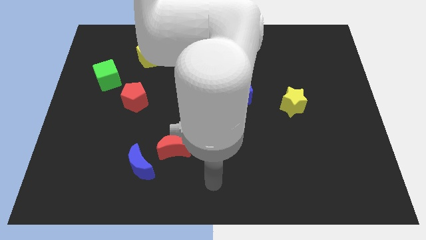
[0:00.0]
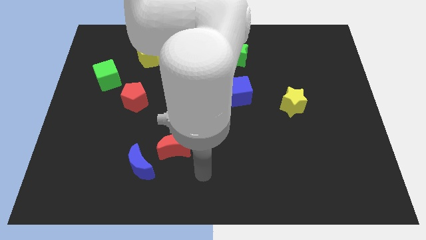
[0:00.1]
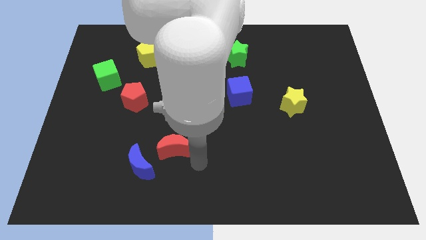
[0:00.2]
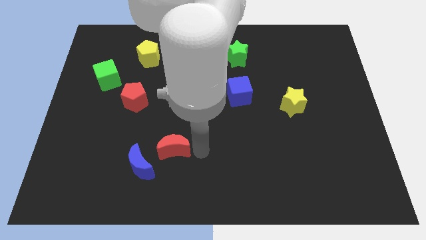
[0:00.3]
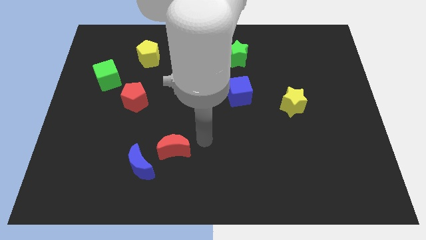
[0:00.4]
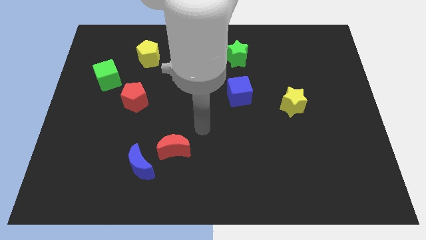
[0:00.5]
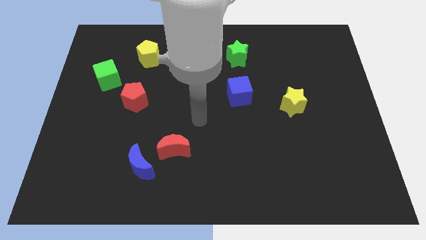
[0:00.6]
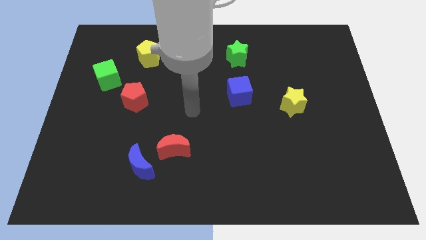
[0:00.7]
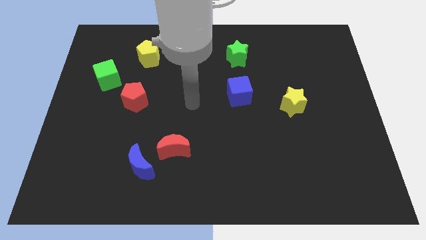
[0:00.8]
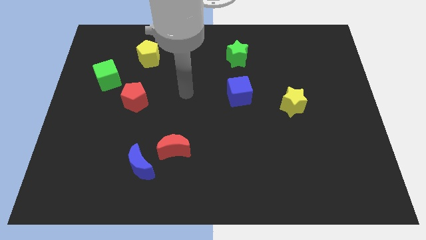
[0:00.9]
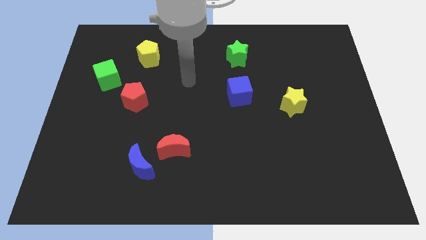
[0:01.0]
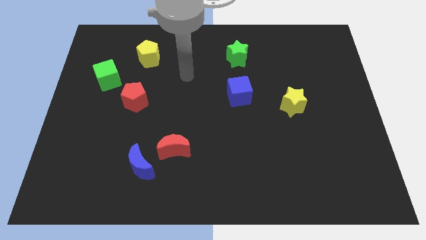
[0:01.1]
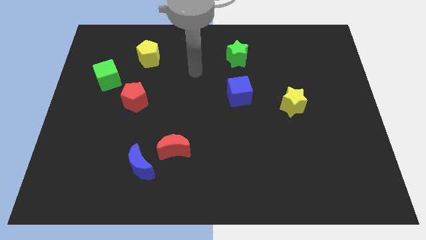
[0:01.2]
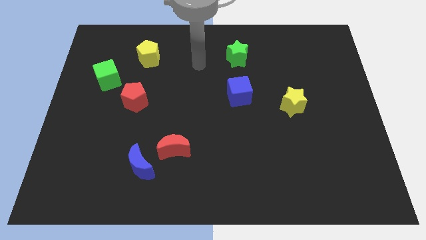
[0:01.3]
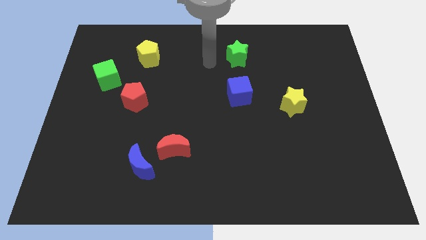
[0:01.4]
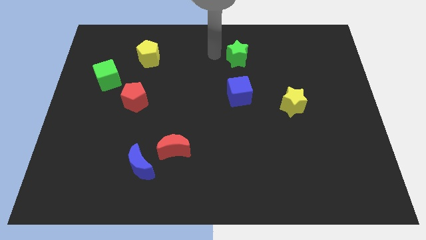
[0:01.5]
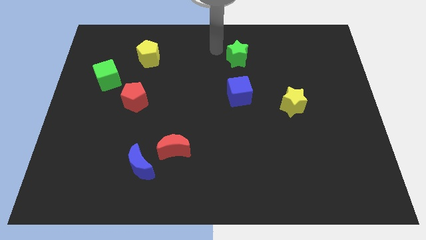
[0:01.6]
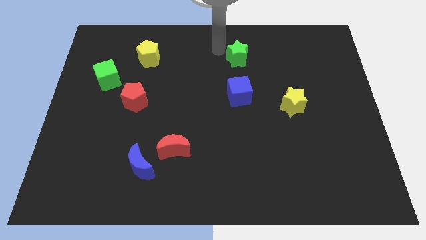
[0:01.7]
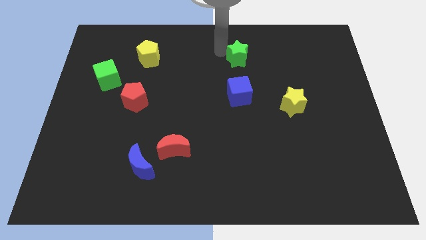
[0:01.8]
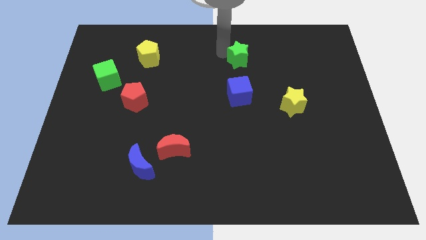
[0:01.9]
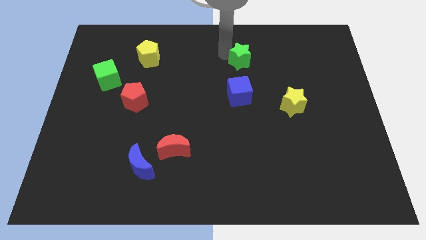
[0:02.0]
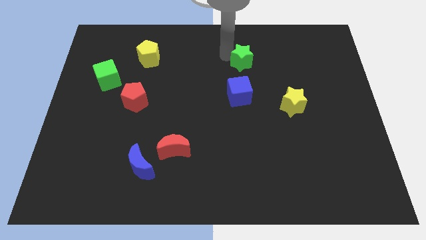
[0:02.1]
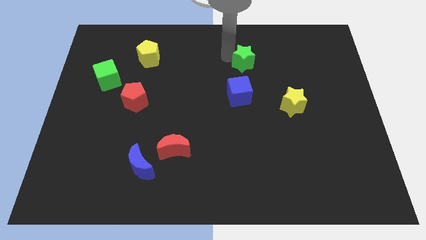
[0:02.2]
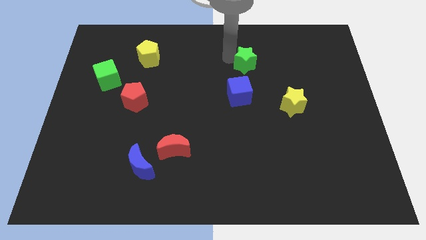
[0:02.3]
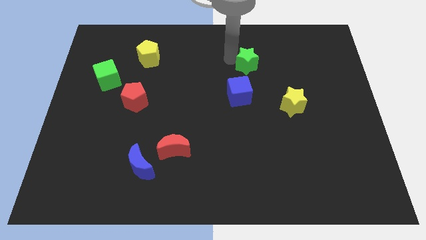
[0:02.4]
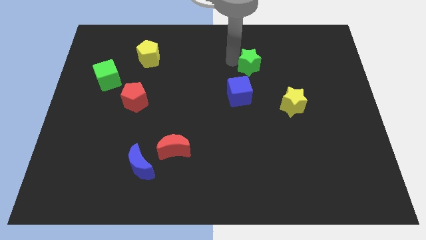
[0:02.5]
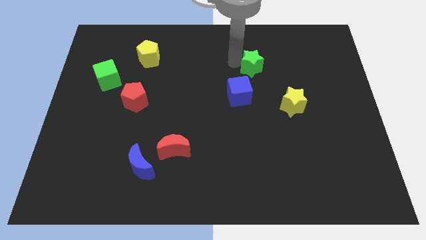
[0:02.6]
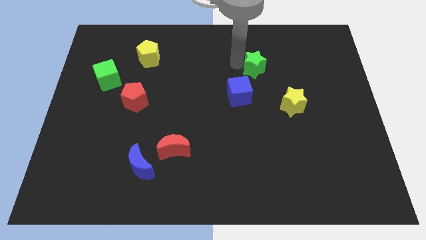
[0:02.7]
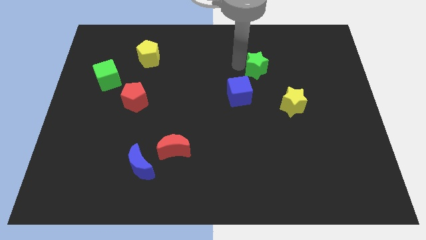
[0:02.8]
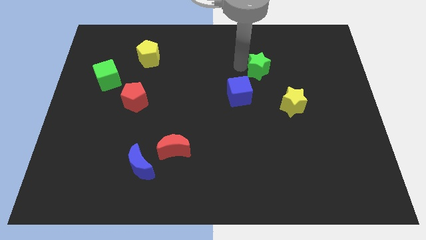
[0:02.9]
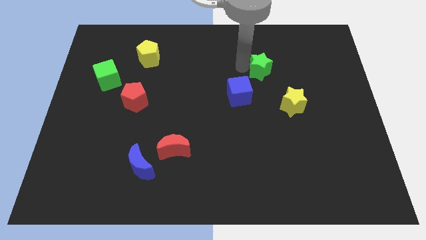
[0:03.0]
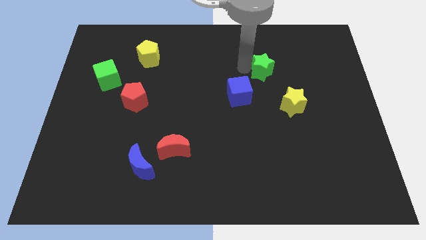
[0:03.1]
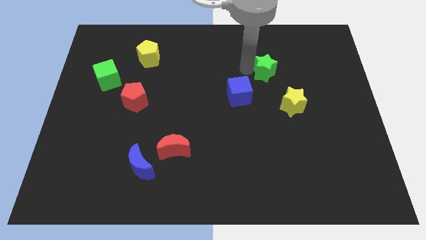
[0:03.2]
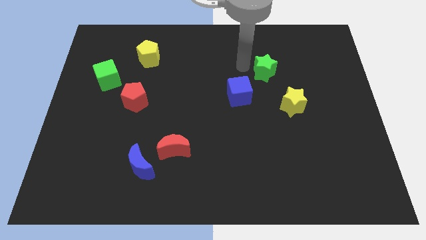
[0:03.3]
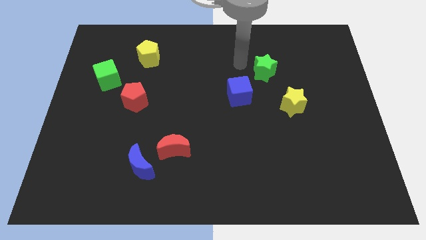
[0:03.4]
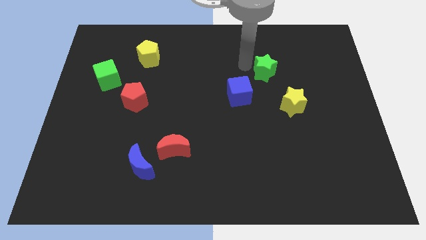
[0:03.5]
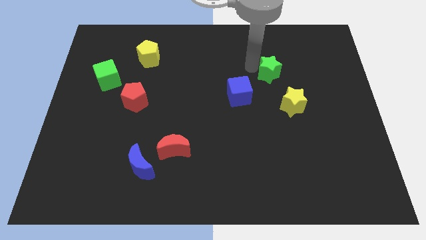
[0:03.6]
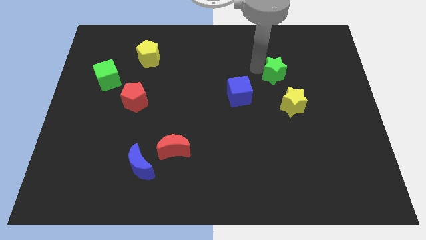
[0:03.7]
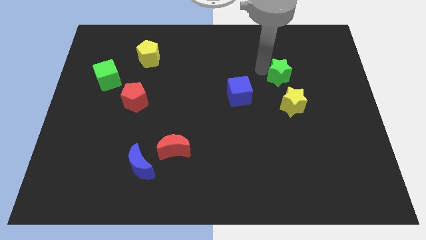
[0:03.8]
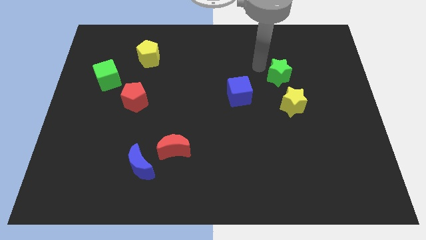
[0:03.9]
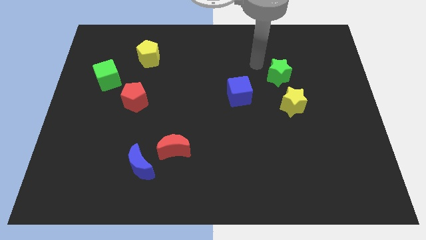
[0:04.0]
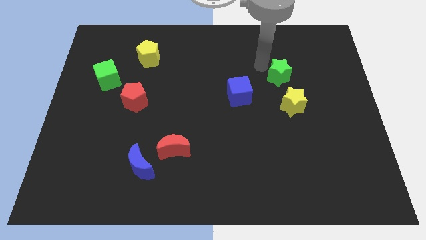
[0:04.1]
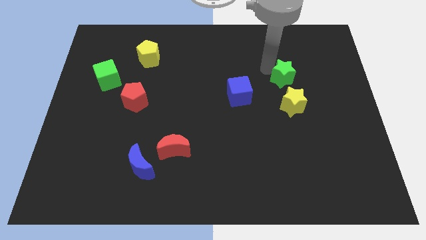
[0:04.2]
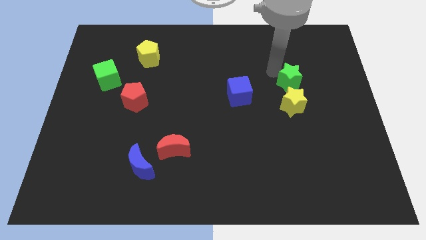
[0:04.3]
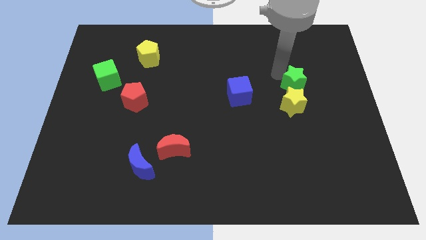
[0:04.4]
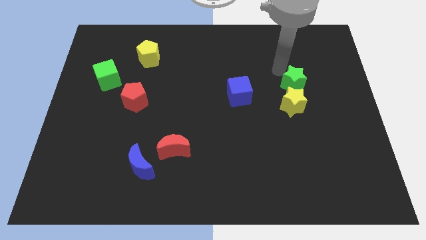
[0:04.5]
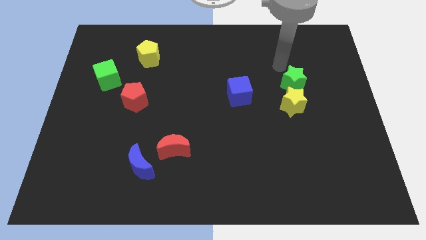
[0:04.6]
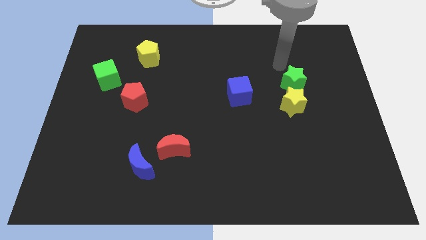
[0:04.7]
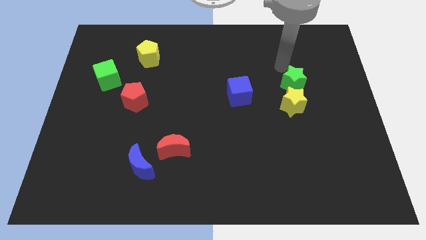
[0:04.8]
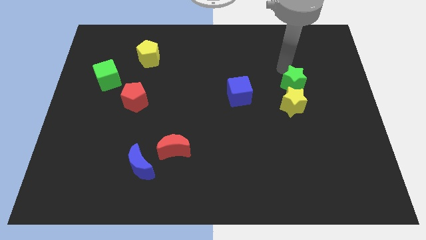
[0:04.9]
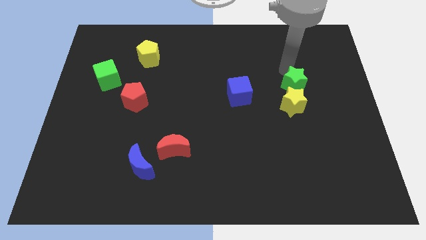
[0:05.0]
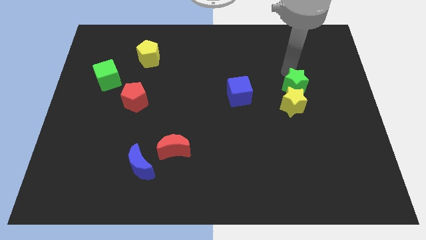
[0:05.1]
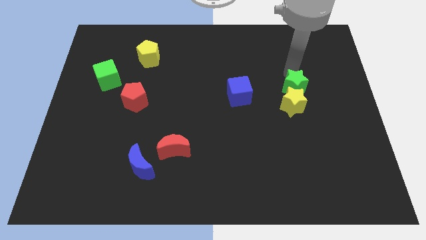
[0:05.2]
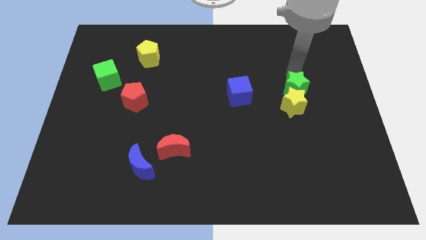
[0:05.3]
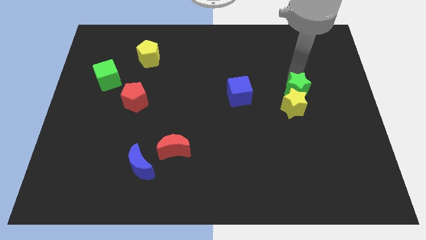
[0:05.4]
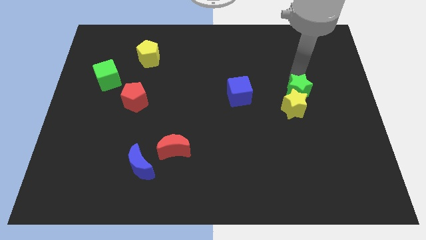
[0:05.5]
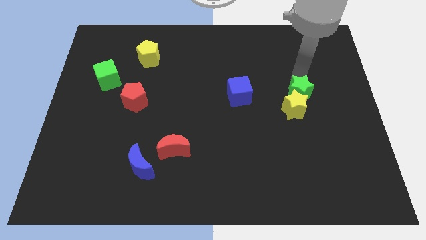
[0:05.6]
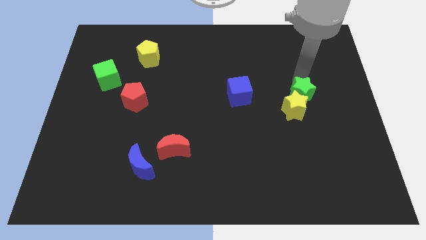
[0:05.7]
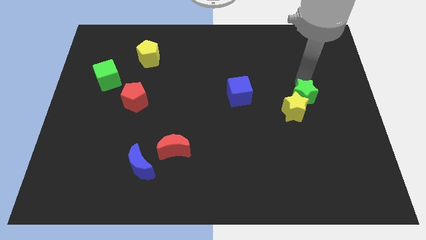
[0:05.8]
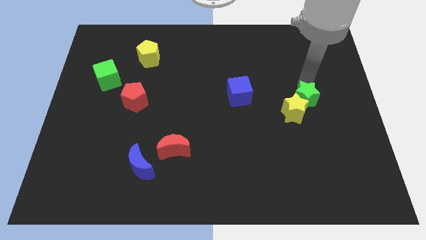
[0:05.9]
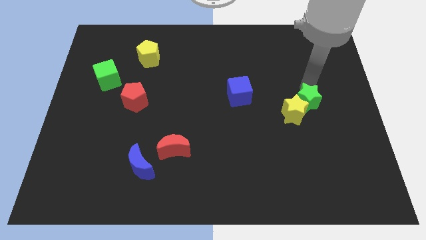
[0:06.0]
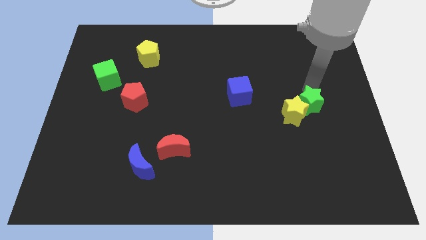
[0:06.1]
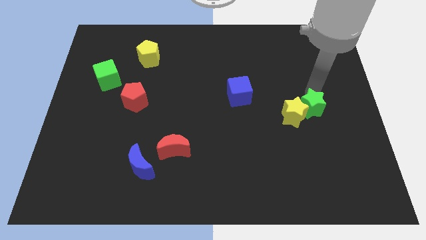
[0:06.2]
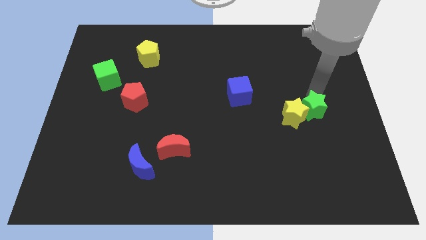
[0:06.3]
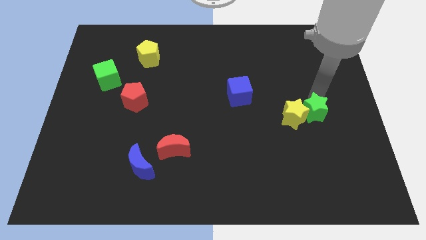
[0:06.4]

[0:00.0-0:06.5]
move the green star to the bottom right side of the yellow star

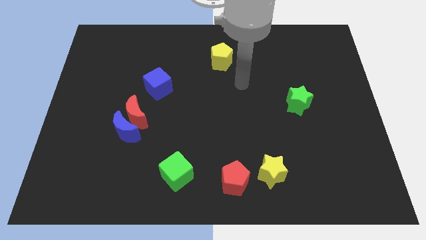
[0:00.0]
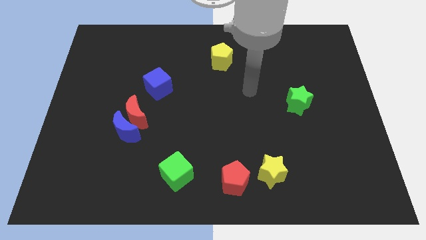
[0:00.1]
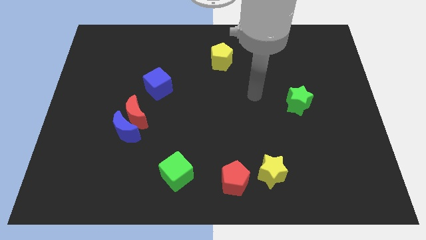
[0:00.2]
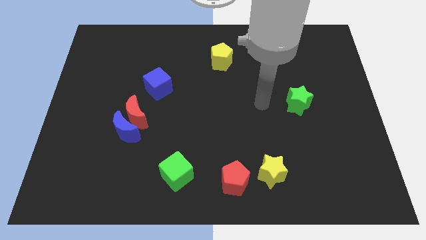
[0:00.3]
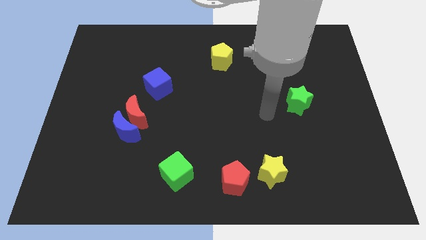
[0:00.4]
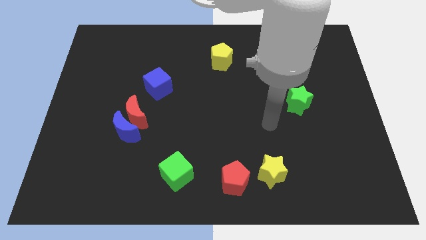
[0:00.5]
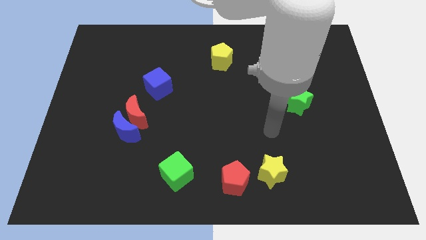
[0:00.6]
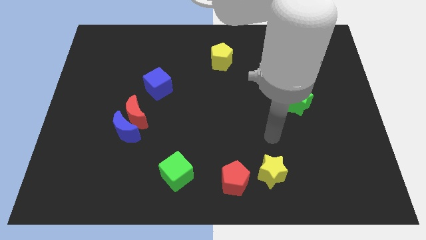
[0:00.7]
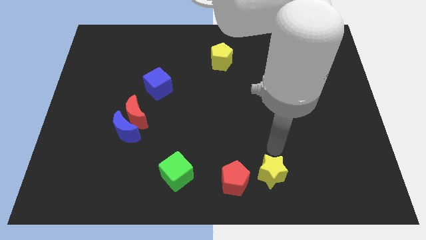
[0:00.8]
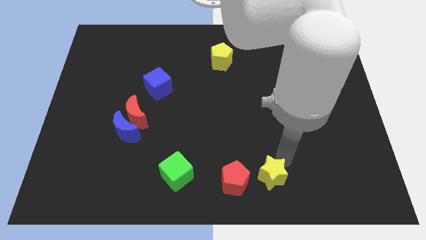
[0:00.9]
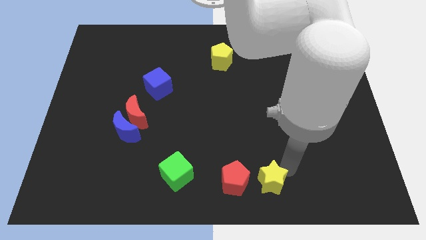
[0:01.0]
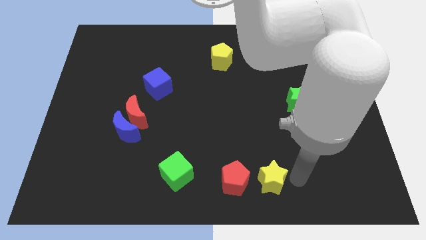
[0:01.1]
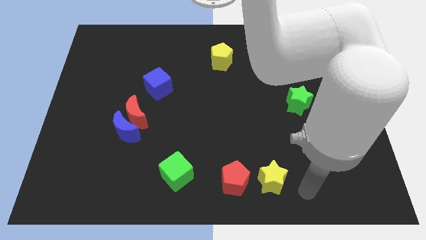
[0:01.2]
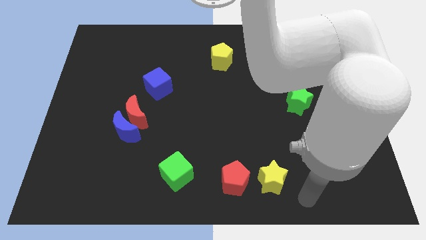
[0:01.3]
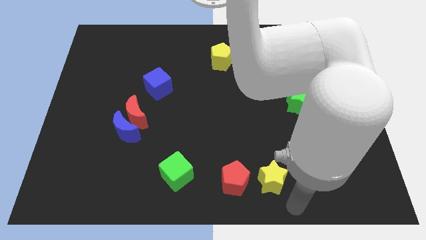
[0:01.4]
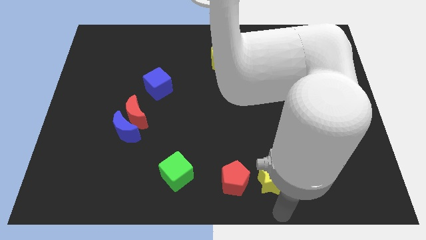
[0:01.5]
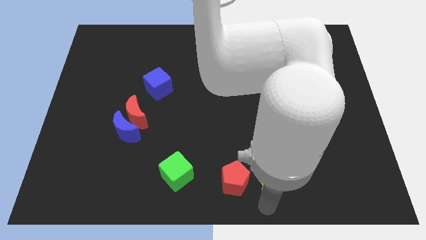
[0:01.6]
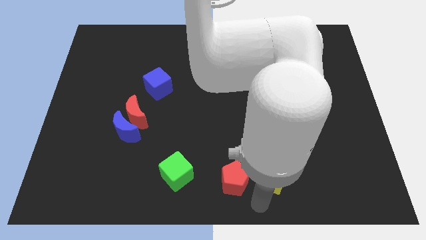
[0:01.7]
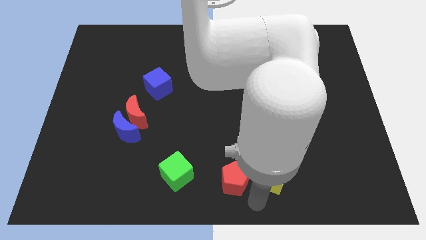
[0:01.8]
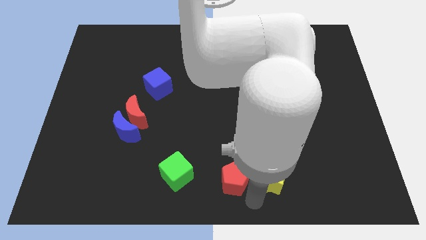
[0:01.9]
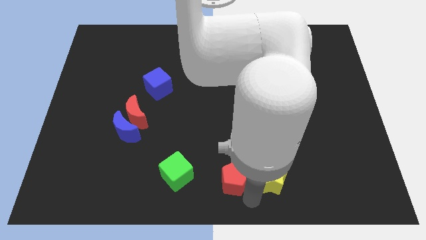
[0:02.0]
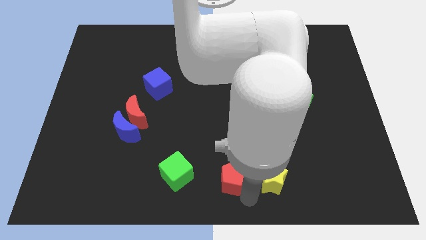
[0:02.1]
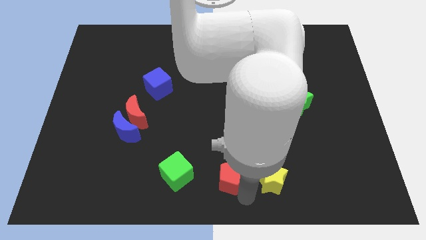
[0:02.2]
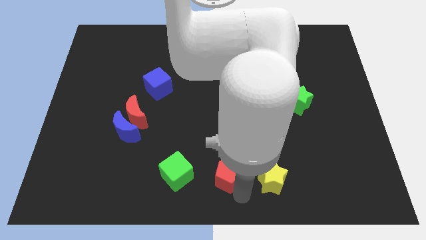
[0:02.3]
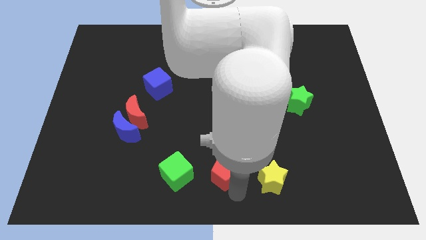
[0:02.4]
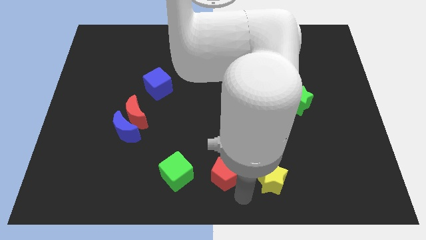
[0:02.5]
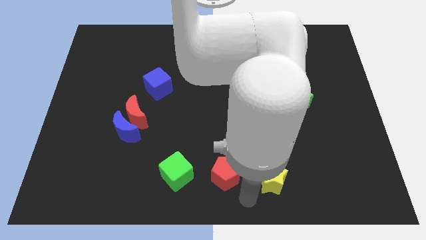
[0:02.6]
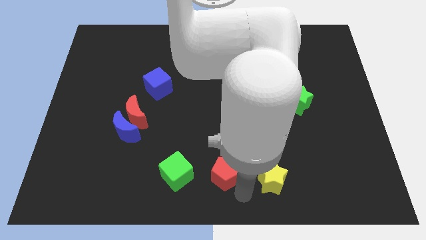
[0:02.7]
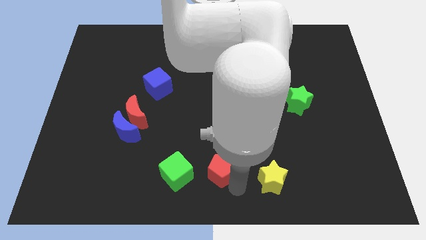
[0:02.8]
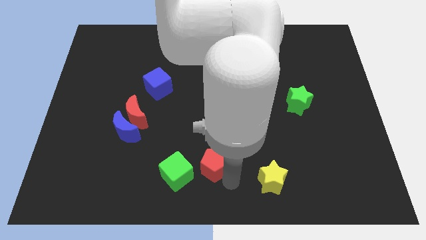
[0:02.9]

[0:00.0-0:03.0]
move the red pentagon to the top right of the green cube
